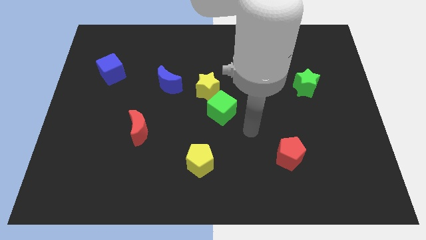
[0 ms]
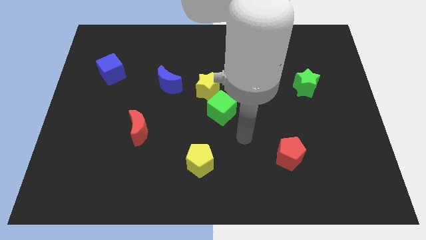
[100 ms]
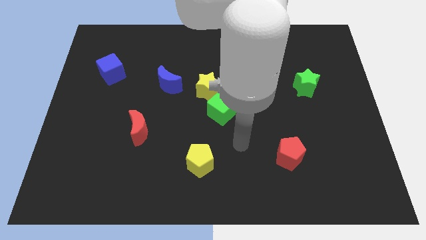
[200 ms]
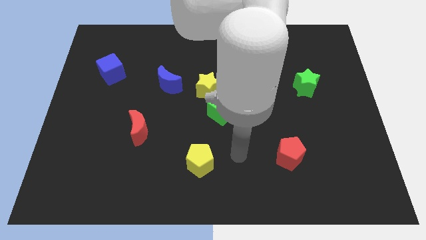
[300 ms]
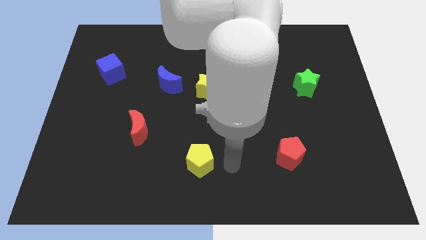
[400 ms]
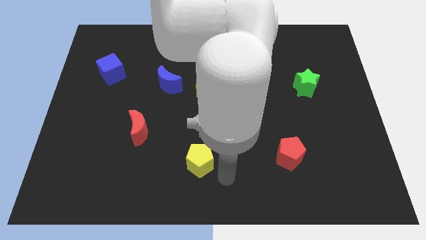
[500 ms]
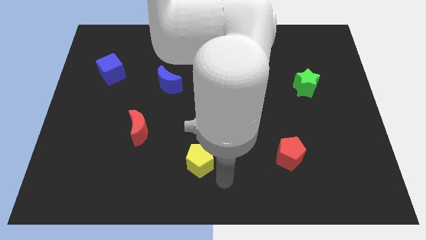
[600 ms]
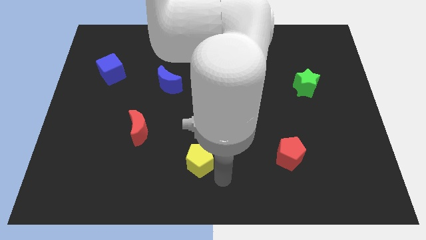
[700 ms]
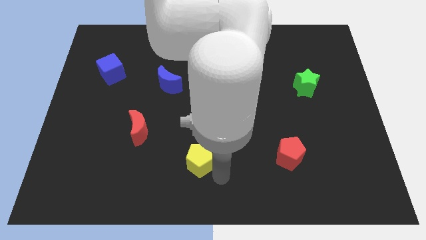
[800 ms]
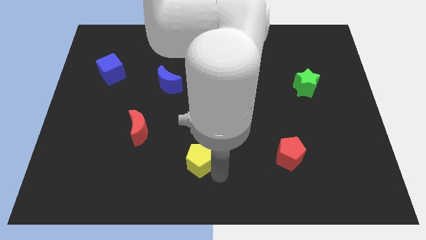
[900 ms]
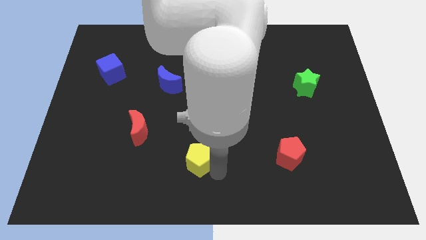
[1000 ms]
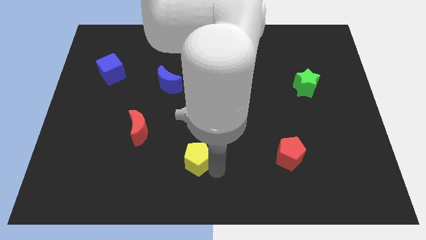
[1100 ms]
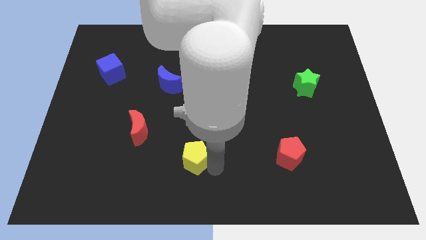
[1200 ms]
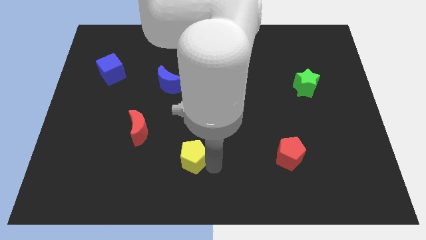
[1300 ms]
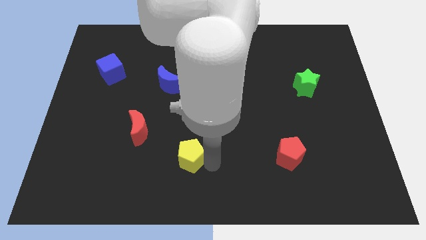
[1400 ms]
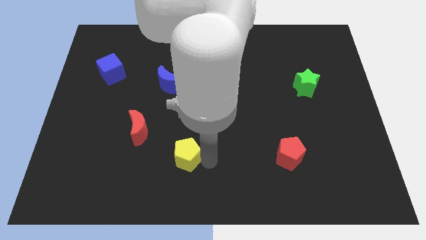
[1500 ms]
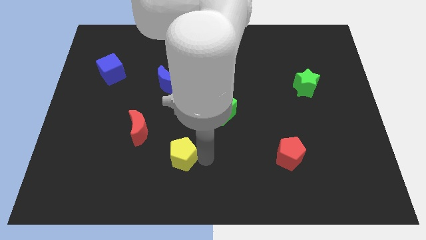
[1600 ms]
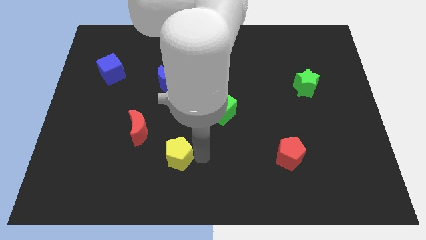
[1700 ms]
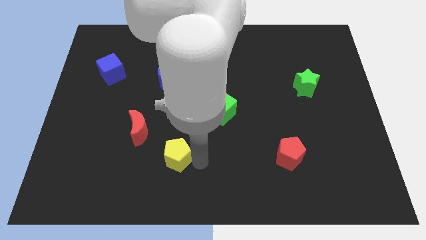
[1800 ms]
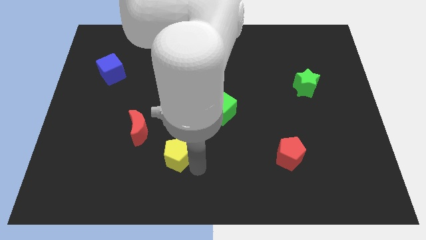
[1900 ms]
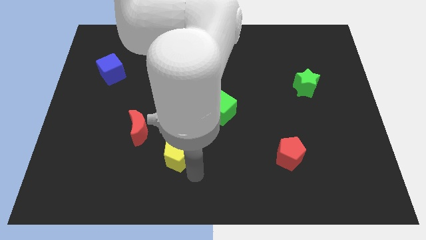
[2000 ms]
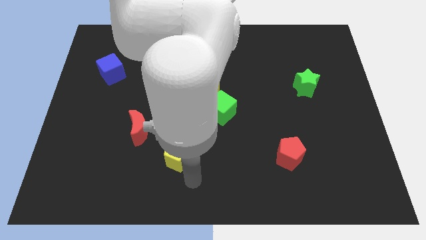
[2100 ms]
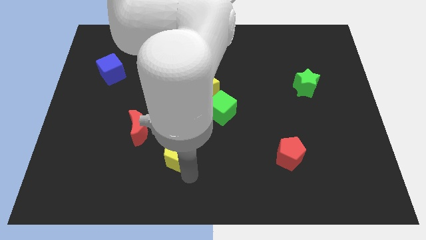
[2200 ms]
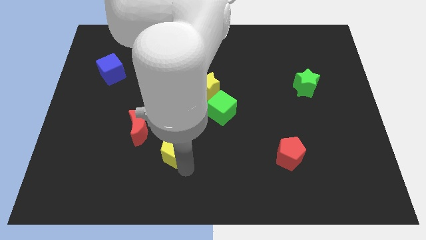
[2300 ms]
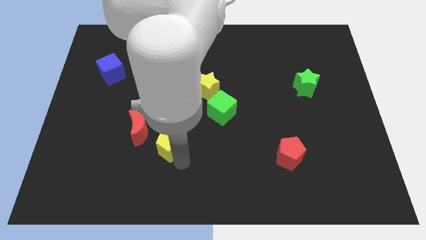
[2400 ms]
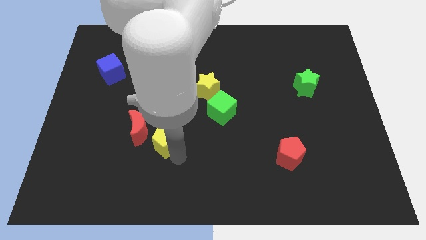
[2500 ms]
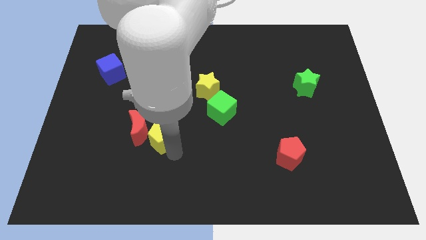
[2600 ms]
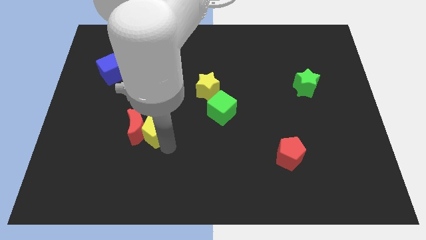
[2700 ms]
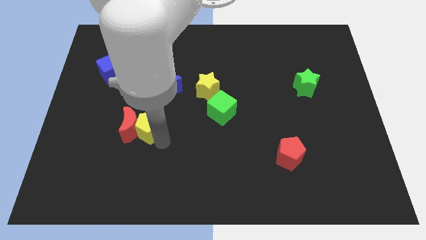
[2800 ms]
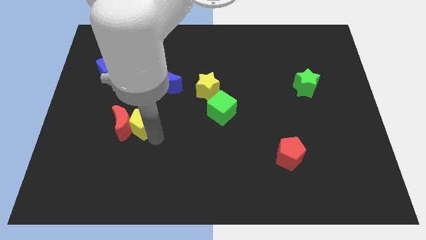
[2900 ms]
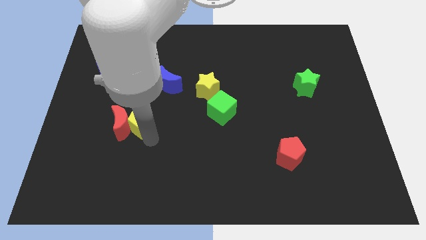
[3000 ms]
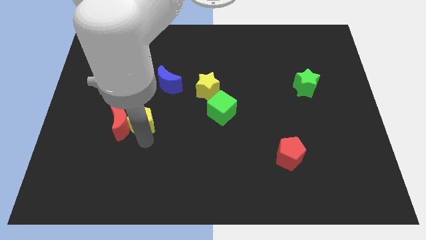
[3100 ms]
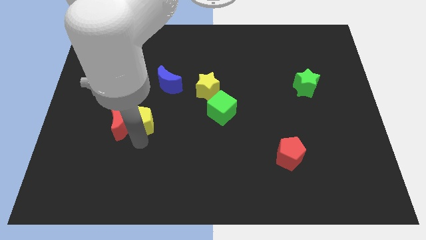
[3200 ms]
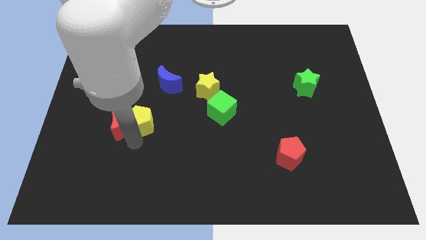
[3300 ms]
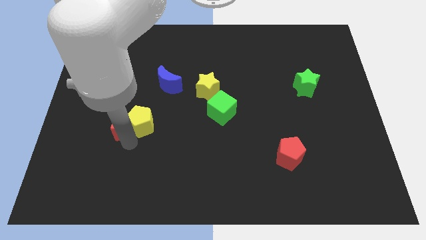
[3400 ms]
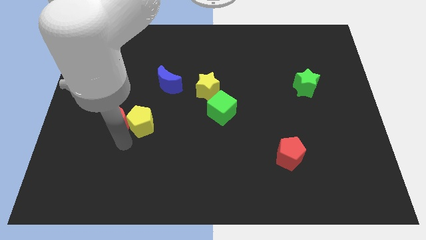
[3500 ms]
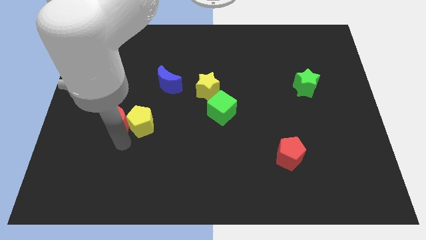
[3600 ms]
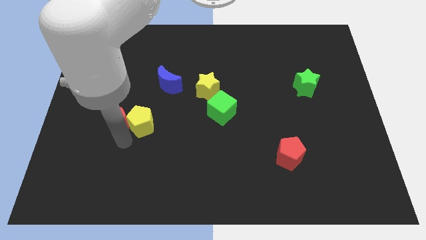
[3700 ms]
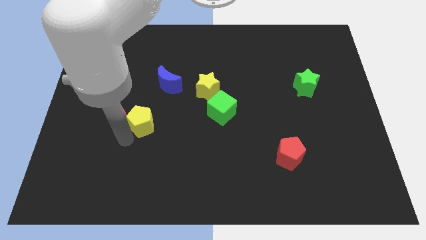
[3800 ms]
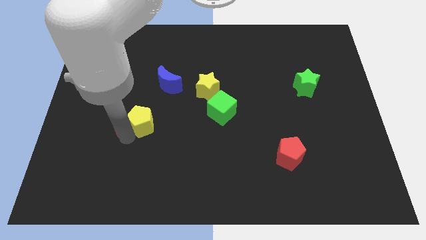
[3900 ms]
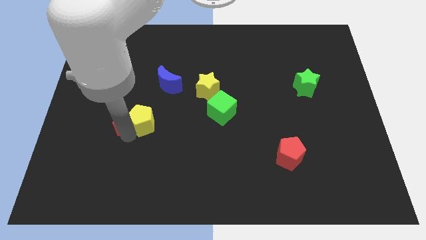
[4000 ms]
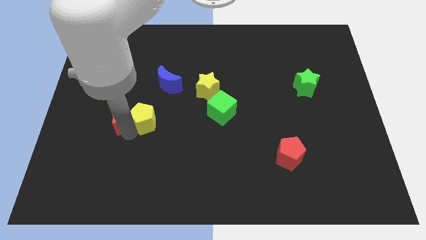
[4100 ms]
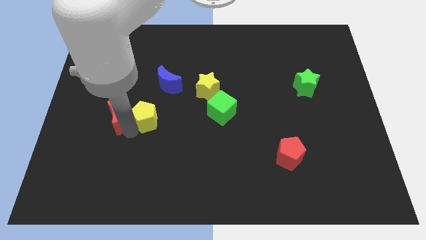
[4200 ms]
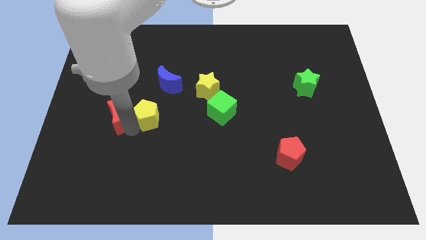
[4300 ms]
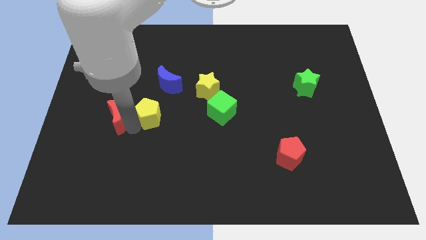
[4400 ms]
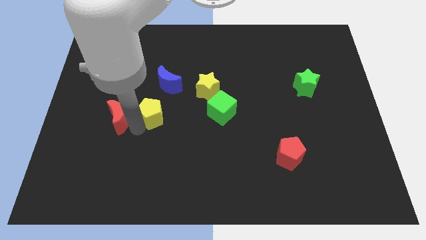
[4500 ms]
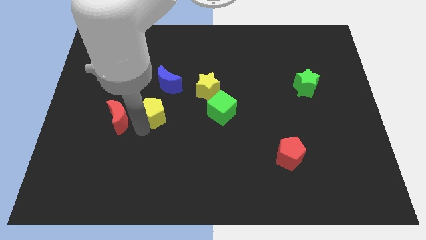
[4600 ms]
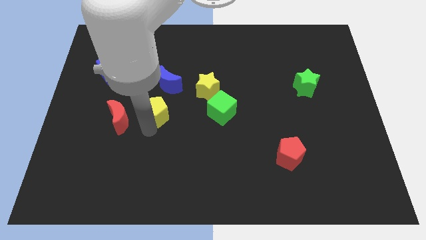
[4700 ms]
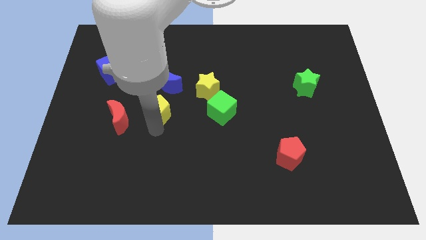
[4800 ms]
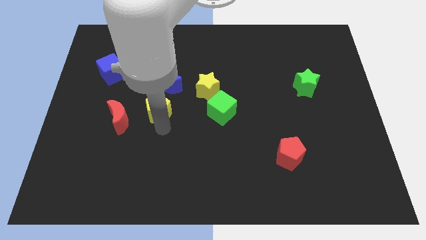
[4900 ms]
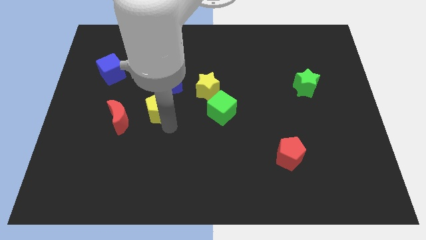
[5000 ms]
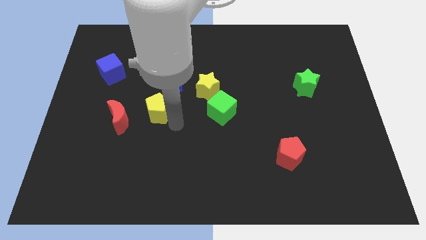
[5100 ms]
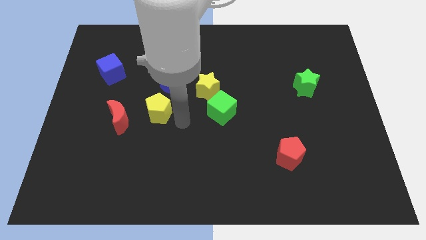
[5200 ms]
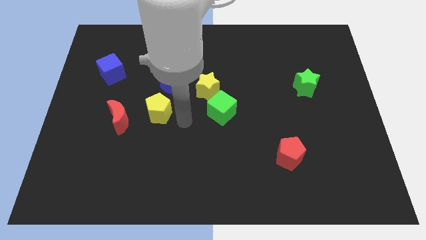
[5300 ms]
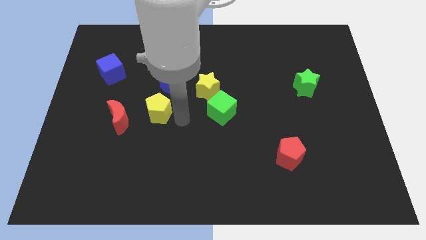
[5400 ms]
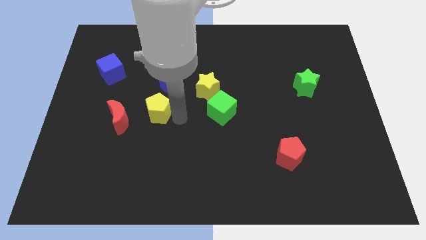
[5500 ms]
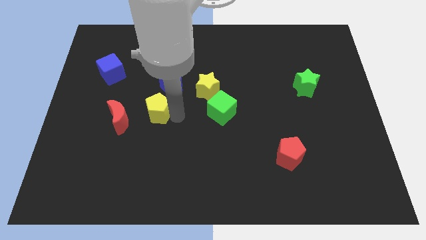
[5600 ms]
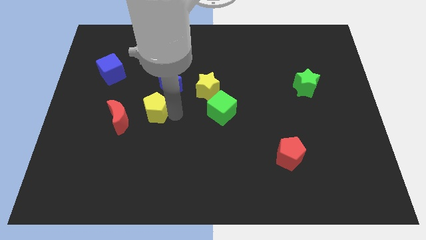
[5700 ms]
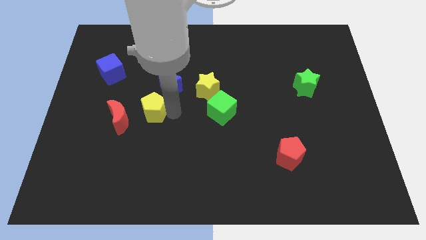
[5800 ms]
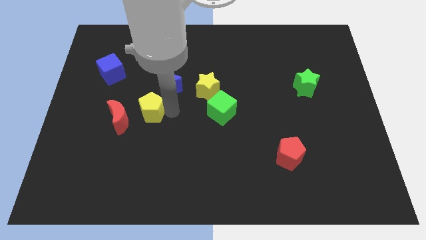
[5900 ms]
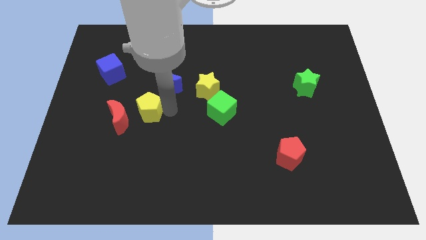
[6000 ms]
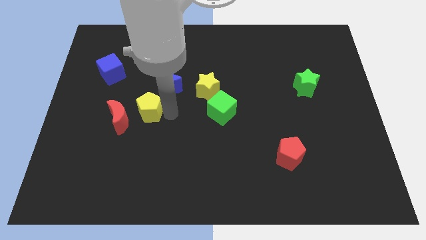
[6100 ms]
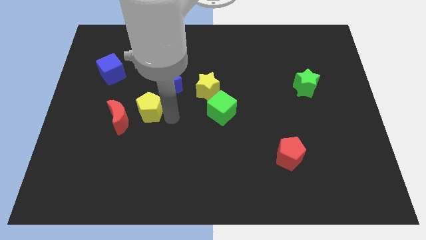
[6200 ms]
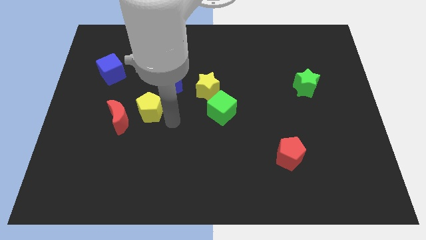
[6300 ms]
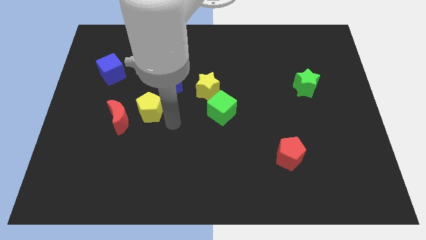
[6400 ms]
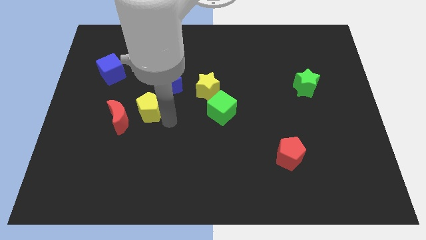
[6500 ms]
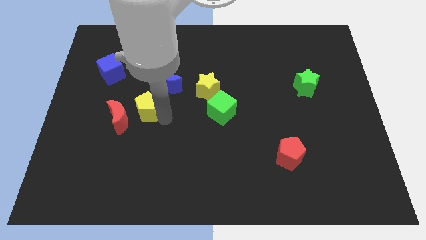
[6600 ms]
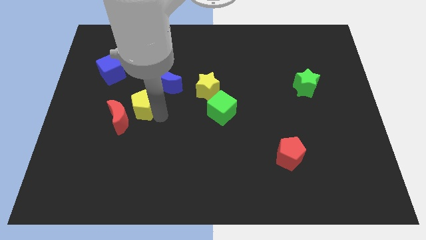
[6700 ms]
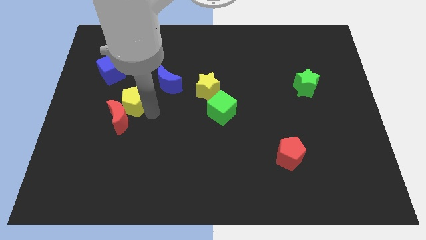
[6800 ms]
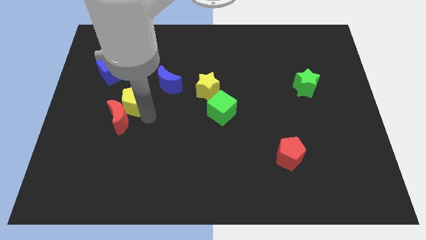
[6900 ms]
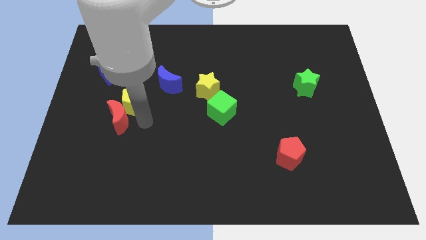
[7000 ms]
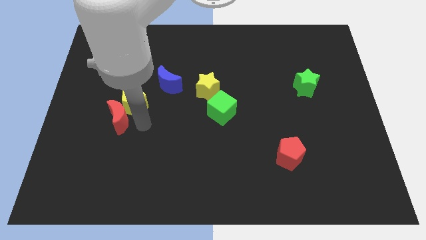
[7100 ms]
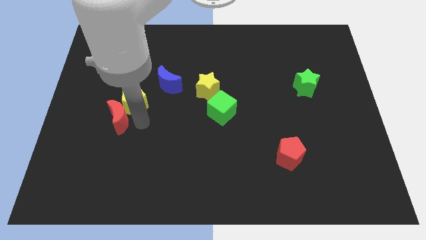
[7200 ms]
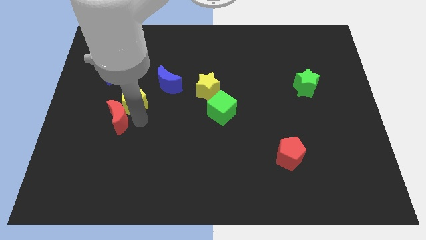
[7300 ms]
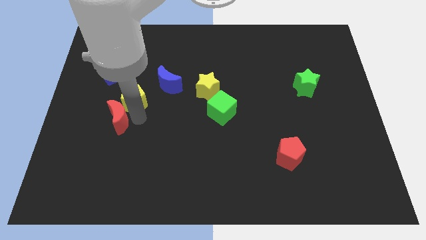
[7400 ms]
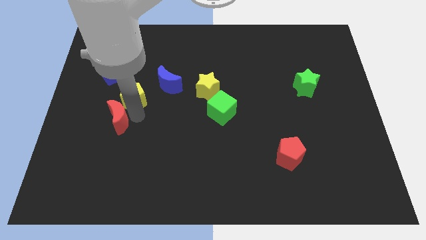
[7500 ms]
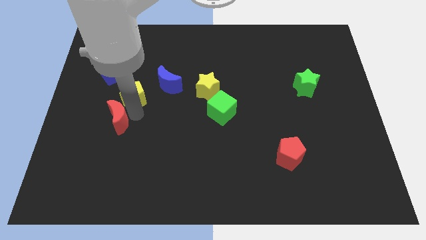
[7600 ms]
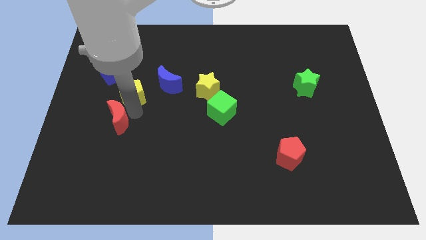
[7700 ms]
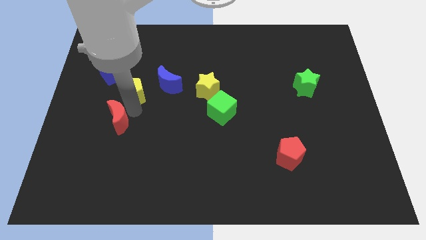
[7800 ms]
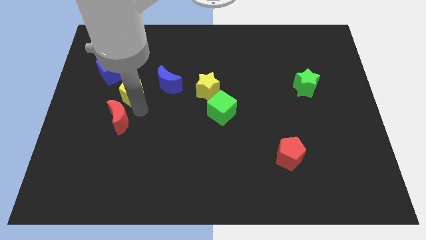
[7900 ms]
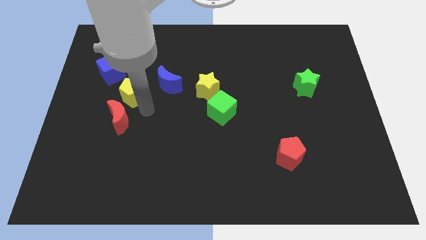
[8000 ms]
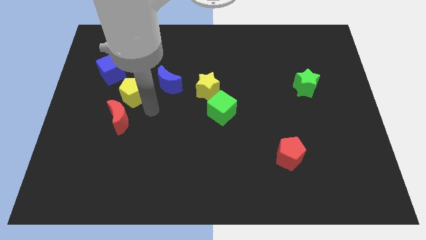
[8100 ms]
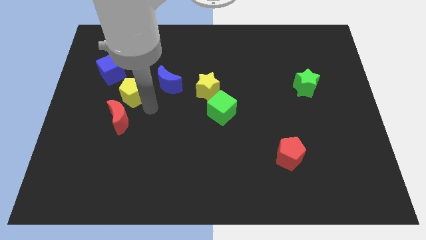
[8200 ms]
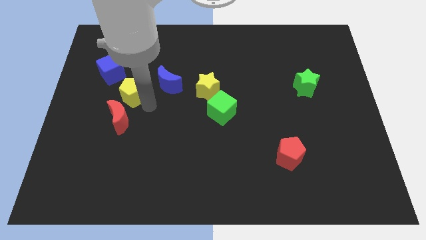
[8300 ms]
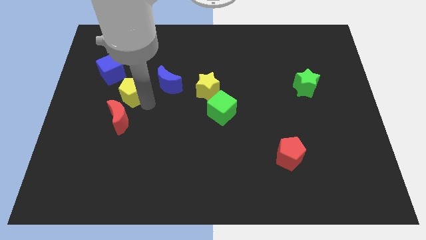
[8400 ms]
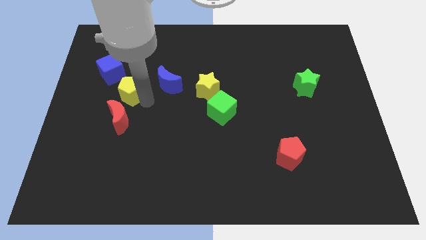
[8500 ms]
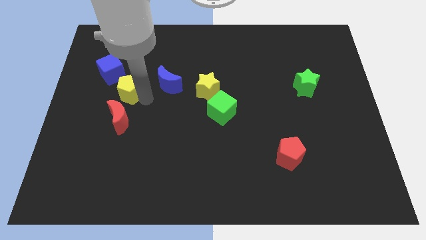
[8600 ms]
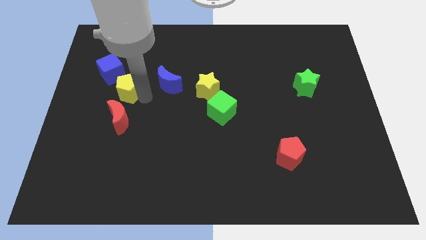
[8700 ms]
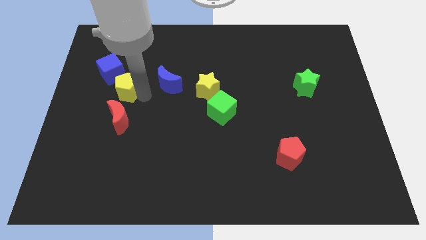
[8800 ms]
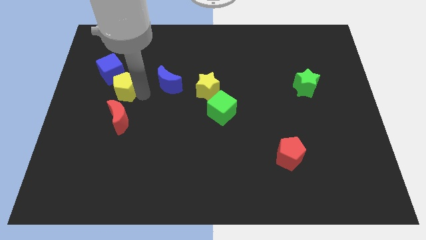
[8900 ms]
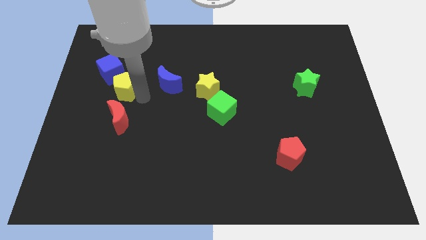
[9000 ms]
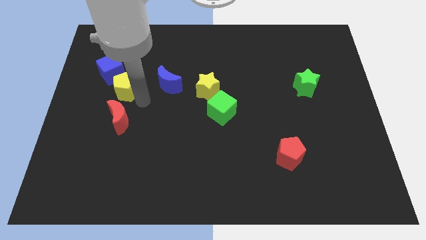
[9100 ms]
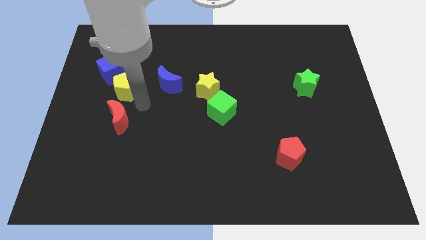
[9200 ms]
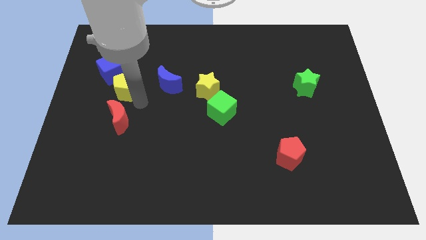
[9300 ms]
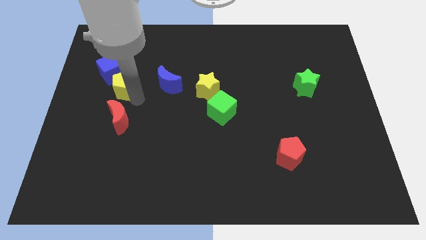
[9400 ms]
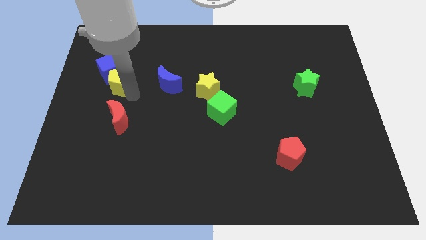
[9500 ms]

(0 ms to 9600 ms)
put the yellow pentagon close to the blue cube
